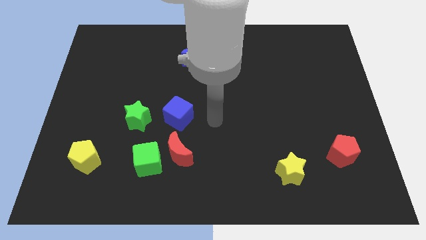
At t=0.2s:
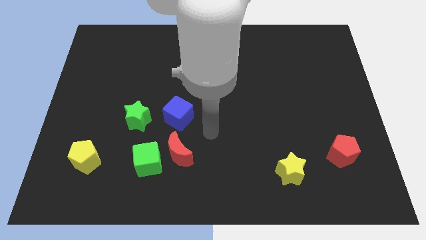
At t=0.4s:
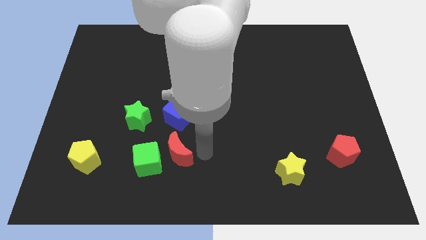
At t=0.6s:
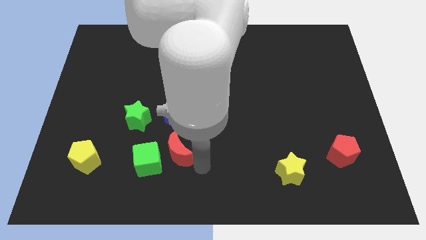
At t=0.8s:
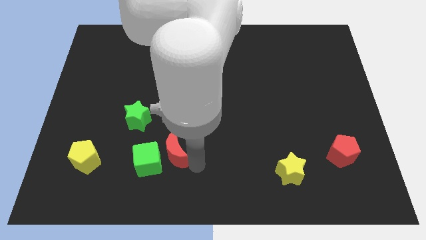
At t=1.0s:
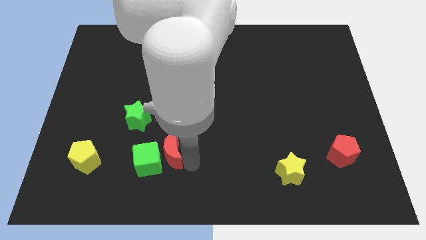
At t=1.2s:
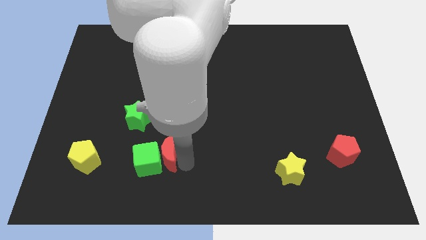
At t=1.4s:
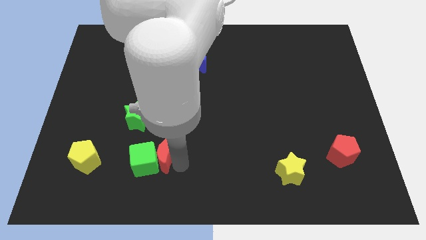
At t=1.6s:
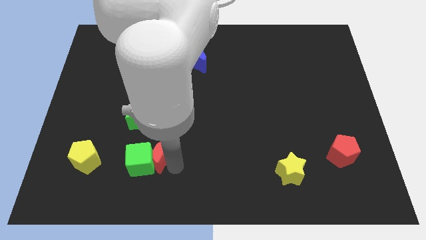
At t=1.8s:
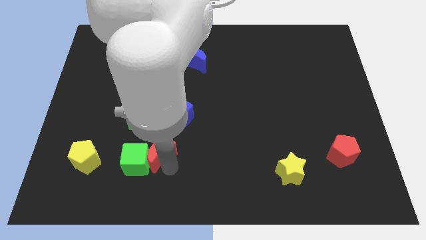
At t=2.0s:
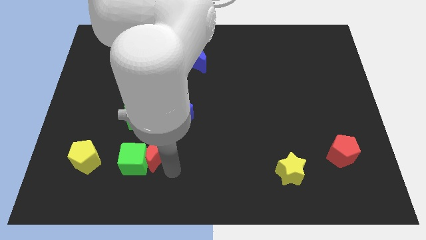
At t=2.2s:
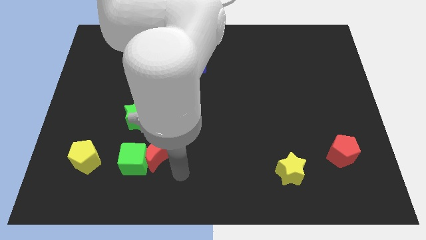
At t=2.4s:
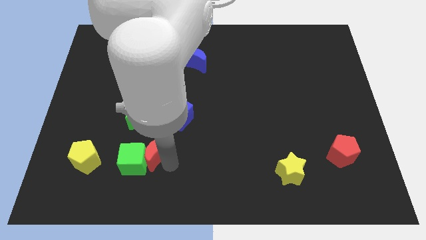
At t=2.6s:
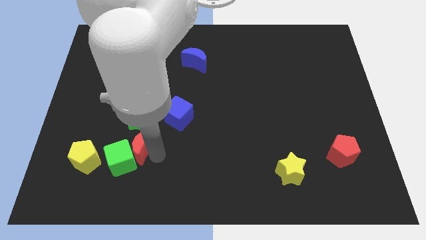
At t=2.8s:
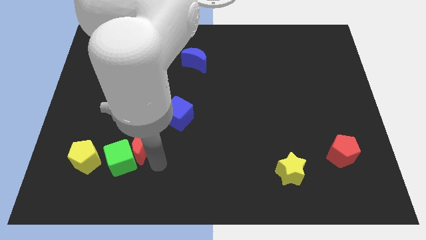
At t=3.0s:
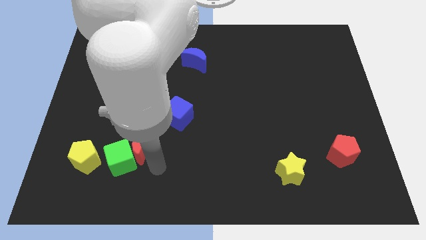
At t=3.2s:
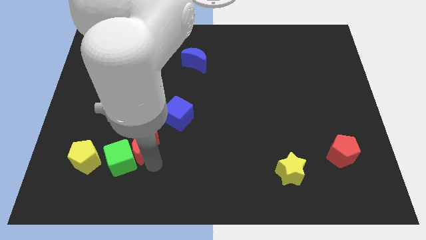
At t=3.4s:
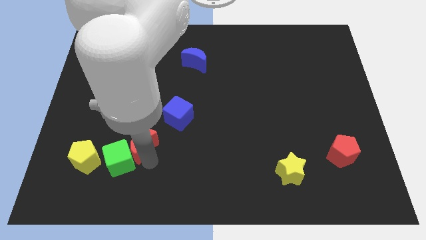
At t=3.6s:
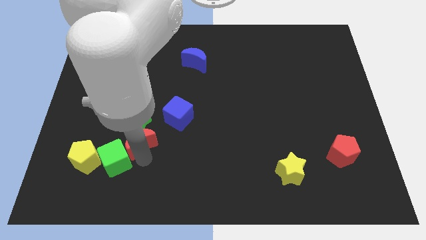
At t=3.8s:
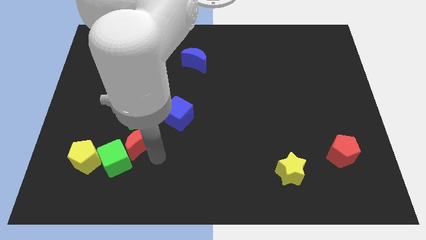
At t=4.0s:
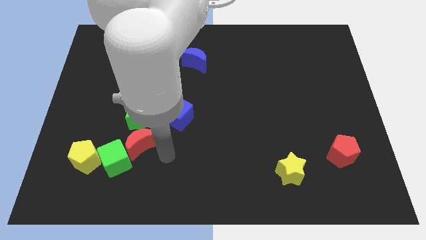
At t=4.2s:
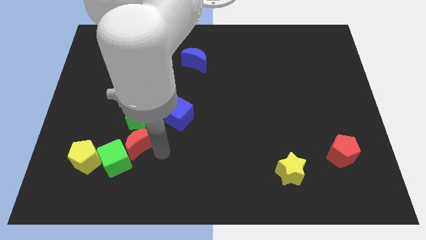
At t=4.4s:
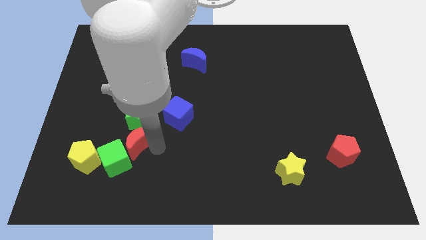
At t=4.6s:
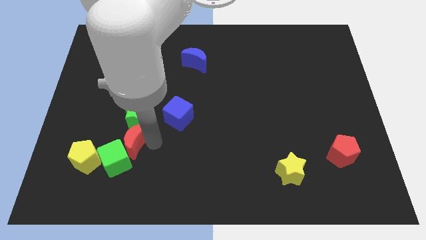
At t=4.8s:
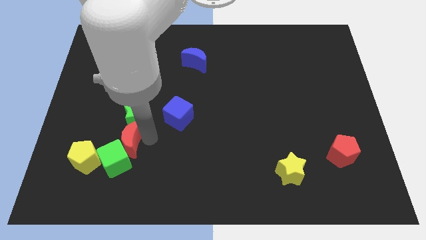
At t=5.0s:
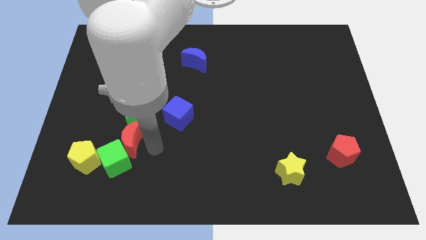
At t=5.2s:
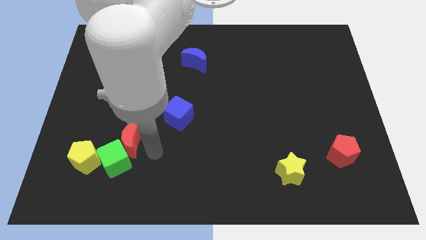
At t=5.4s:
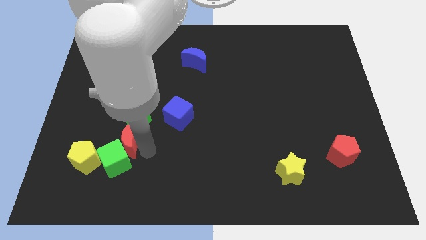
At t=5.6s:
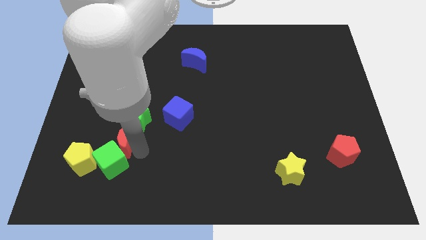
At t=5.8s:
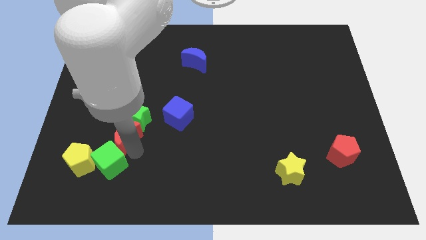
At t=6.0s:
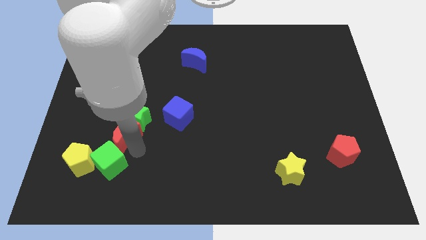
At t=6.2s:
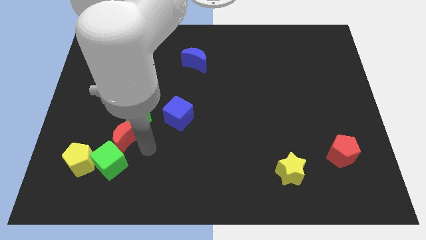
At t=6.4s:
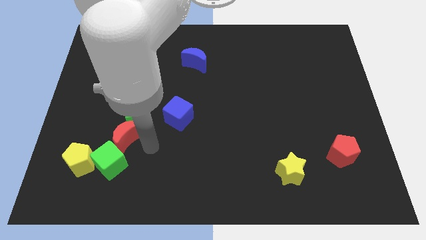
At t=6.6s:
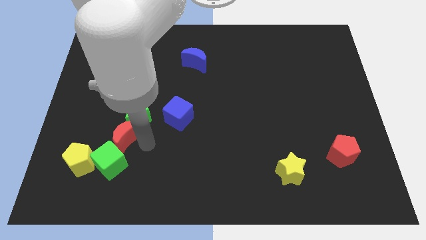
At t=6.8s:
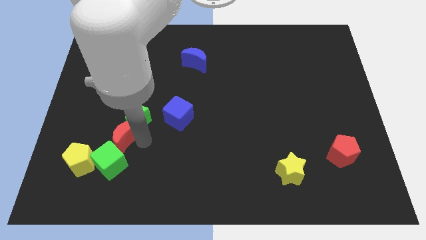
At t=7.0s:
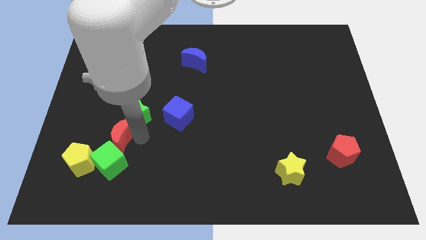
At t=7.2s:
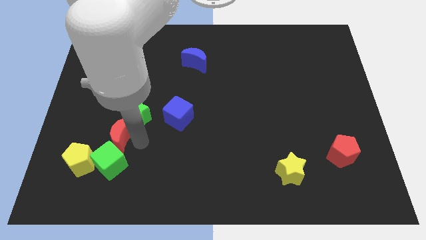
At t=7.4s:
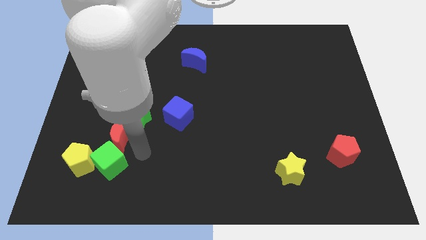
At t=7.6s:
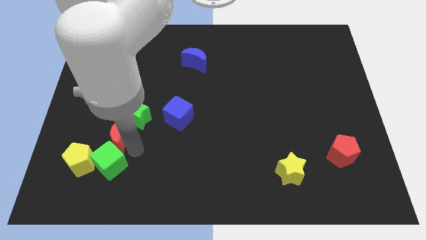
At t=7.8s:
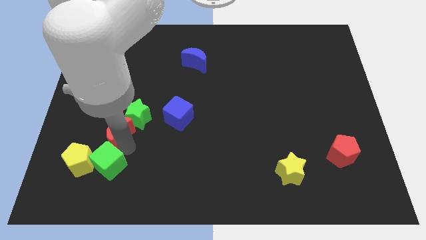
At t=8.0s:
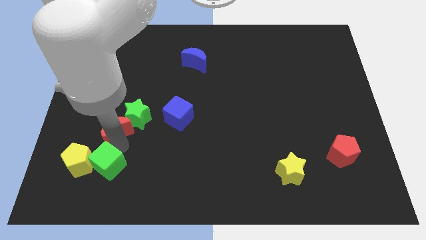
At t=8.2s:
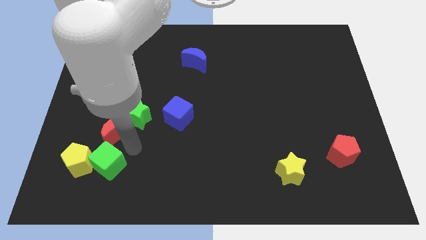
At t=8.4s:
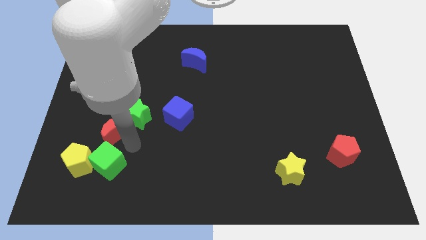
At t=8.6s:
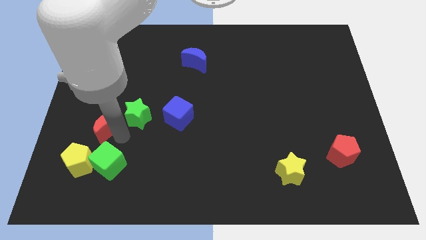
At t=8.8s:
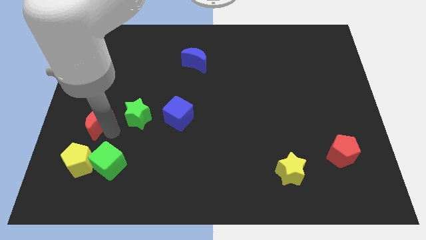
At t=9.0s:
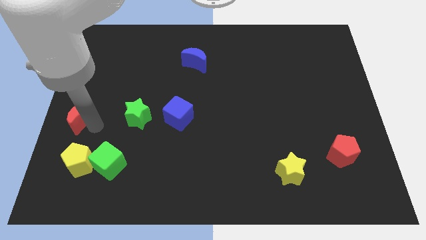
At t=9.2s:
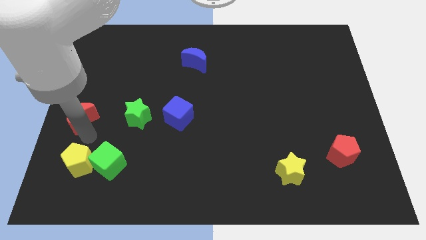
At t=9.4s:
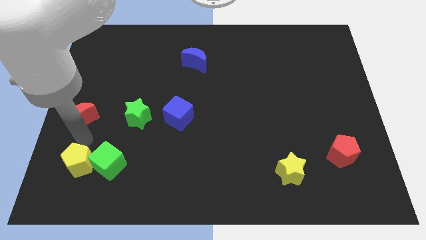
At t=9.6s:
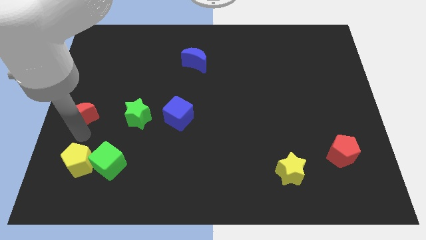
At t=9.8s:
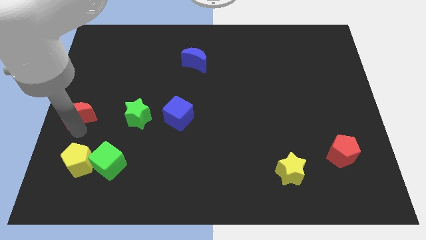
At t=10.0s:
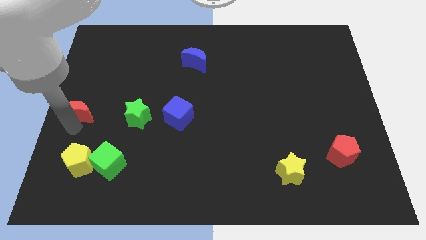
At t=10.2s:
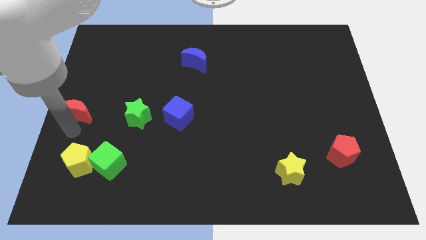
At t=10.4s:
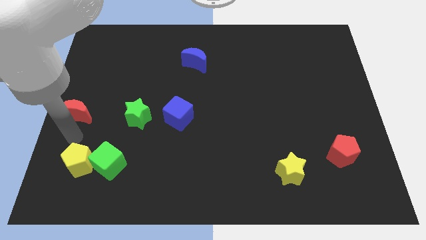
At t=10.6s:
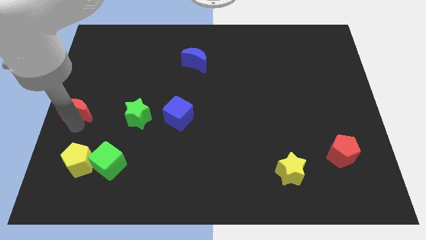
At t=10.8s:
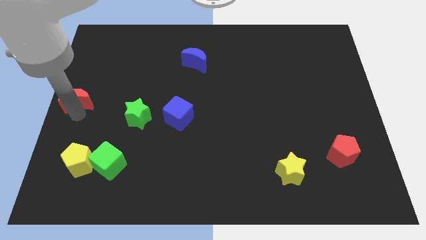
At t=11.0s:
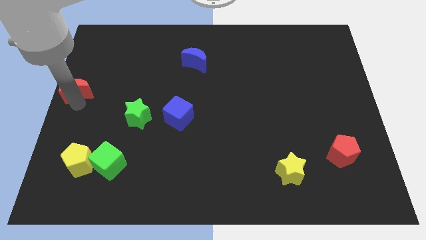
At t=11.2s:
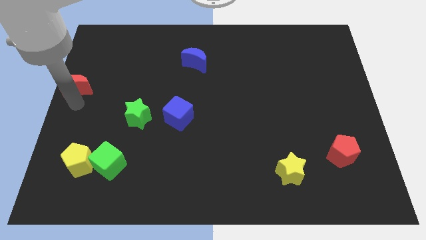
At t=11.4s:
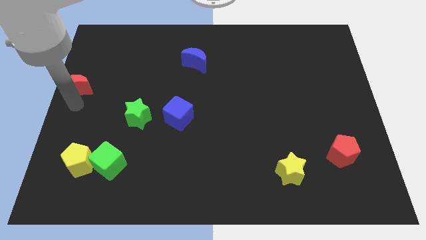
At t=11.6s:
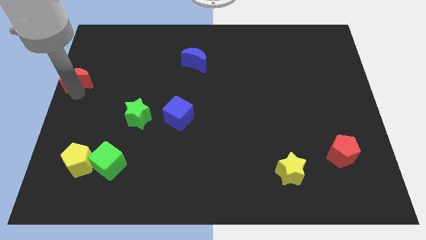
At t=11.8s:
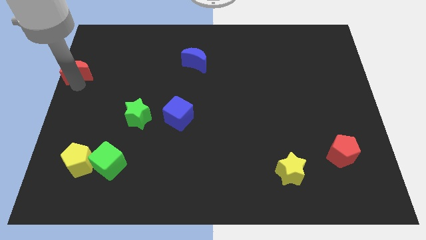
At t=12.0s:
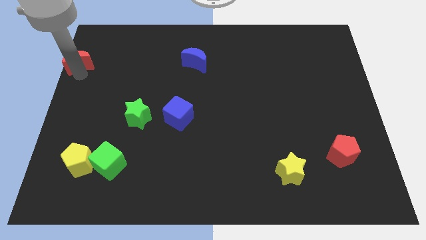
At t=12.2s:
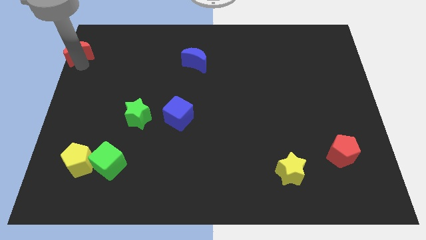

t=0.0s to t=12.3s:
put the red moon to the upper left corner

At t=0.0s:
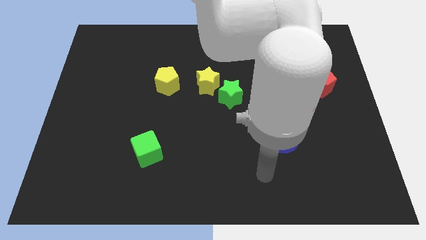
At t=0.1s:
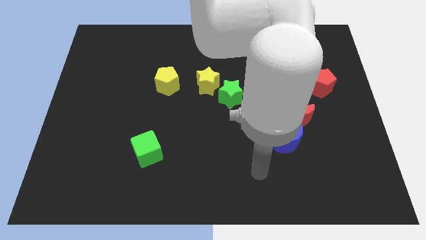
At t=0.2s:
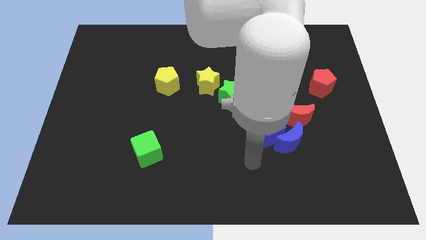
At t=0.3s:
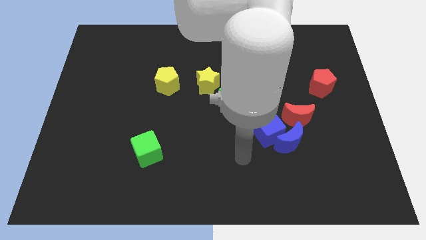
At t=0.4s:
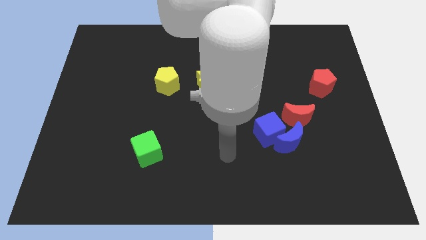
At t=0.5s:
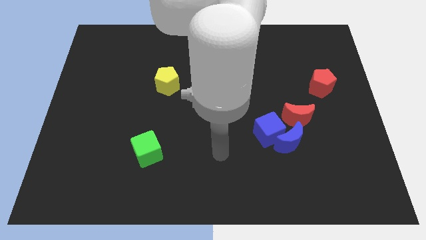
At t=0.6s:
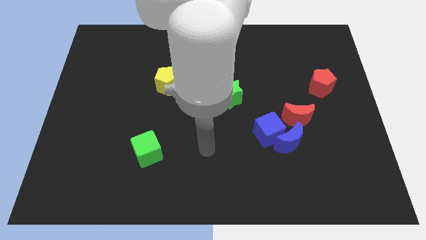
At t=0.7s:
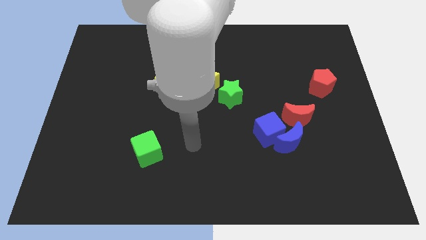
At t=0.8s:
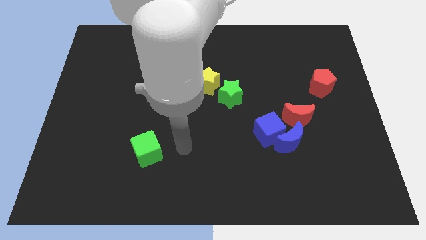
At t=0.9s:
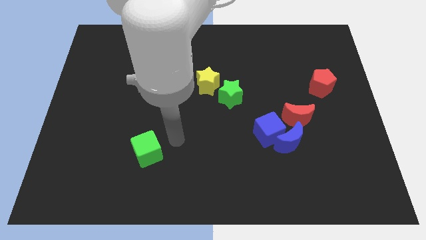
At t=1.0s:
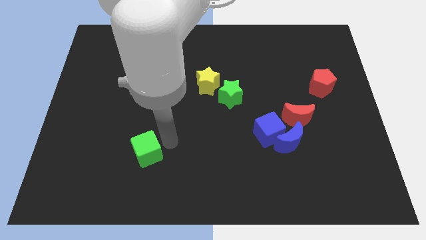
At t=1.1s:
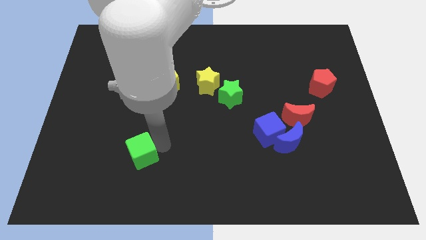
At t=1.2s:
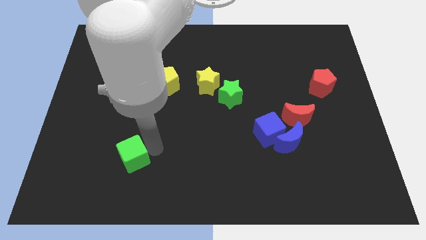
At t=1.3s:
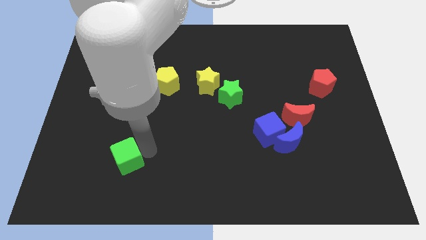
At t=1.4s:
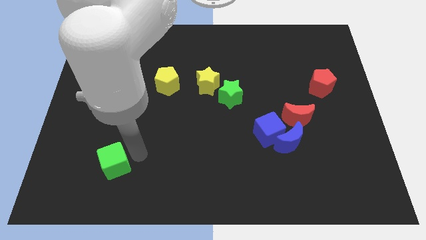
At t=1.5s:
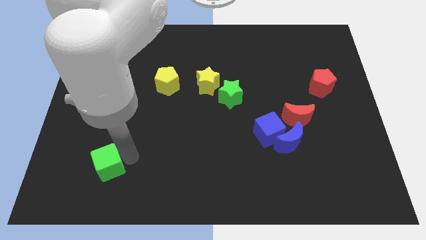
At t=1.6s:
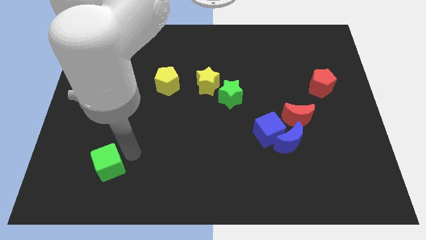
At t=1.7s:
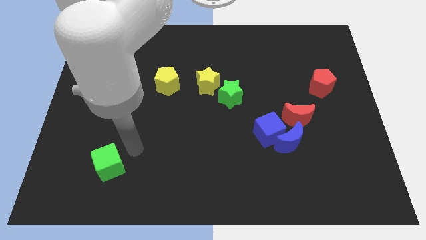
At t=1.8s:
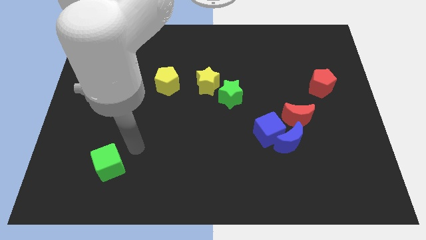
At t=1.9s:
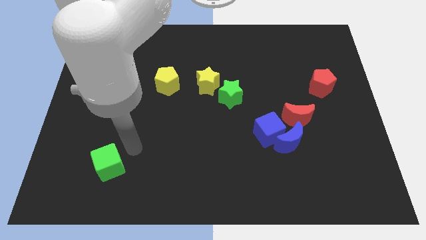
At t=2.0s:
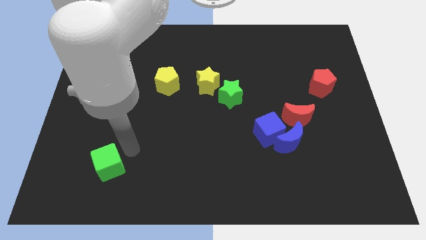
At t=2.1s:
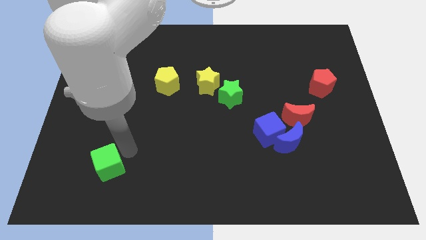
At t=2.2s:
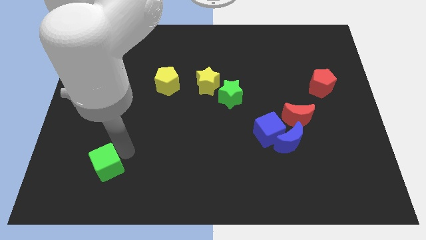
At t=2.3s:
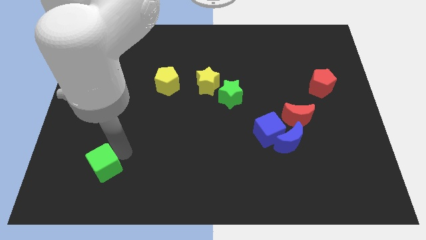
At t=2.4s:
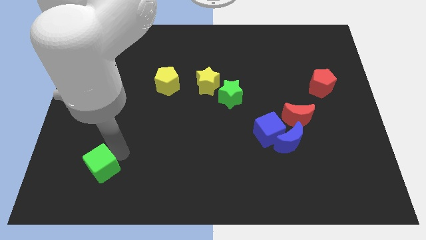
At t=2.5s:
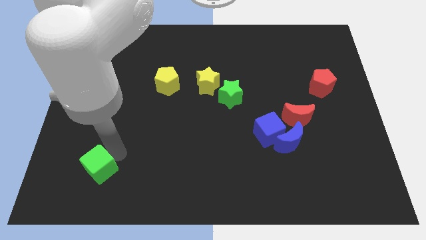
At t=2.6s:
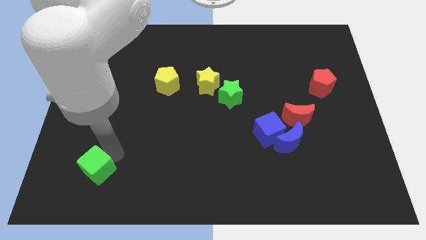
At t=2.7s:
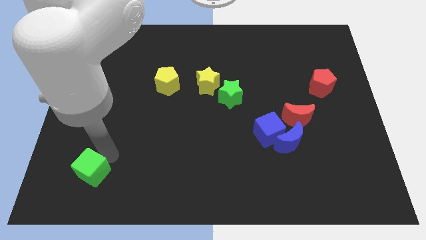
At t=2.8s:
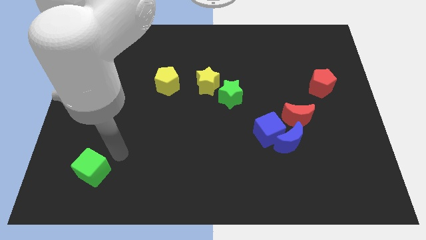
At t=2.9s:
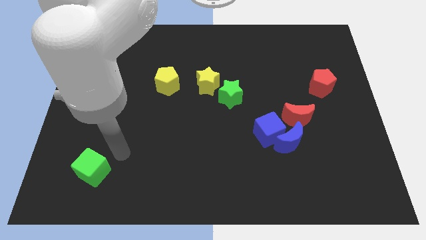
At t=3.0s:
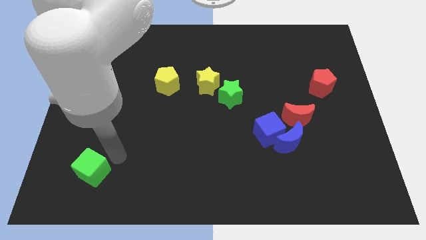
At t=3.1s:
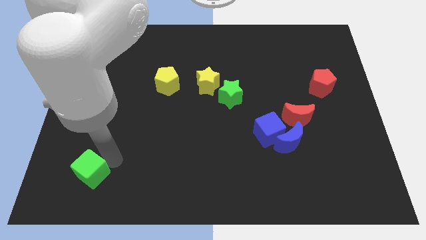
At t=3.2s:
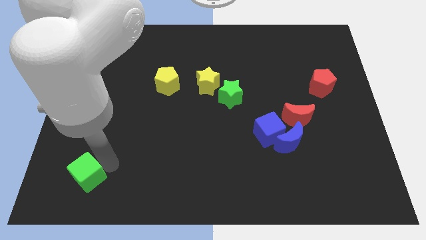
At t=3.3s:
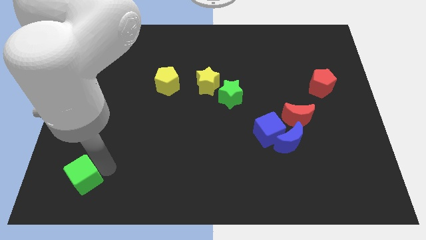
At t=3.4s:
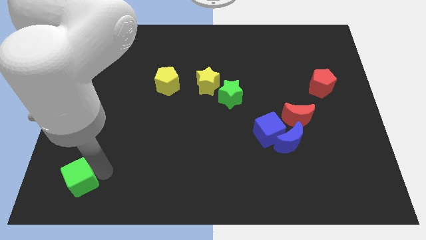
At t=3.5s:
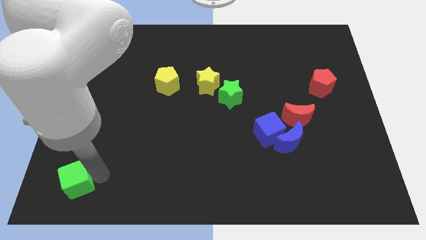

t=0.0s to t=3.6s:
put the green cube to the lower left corner
